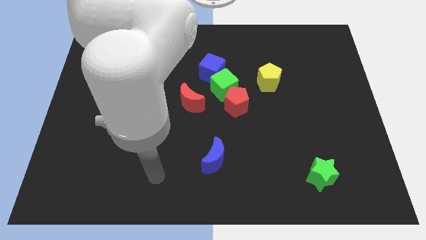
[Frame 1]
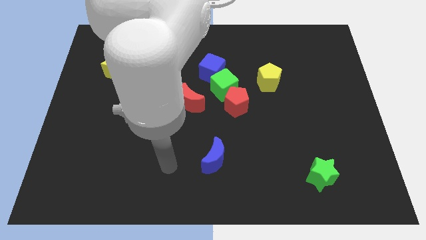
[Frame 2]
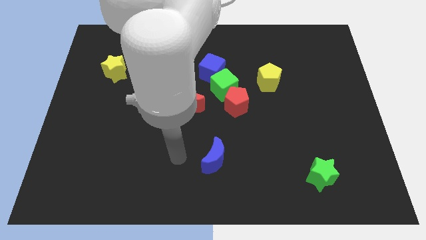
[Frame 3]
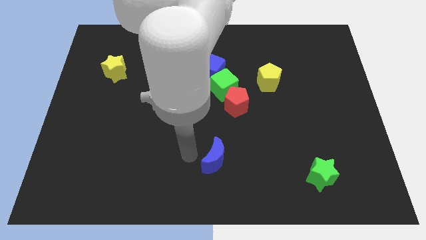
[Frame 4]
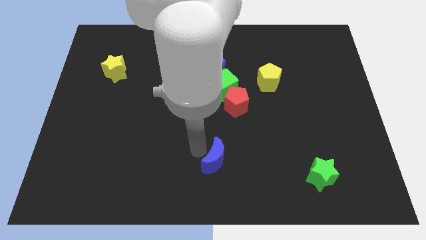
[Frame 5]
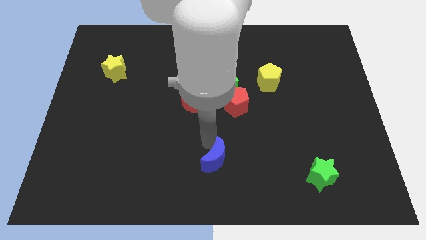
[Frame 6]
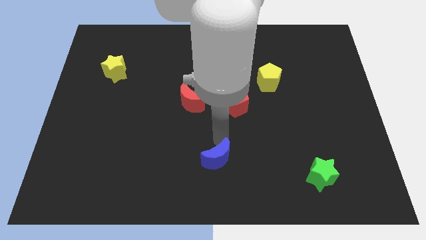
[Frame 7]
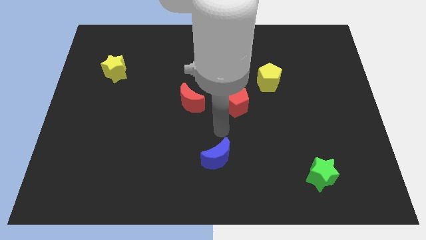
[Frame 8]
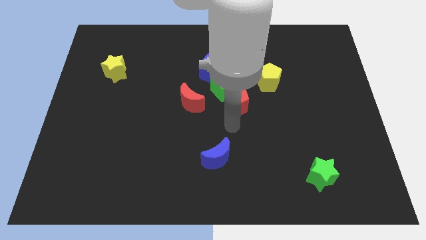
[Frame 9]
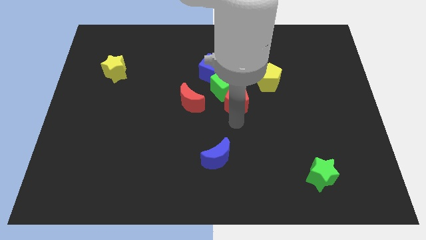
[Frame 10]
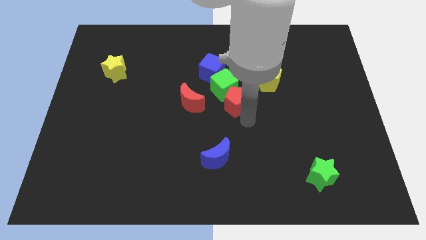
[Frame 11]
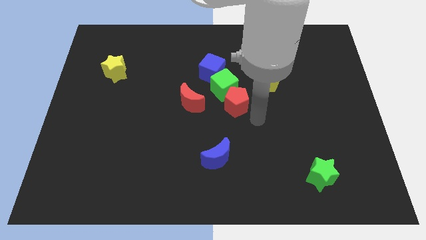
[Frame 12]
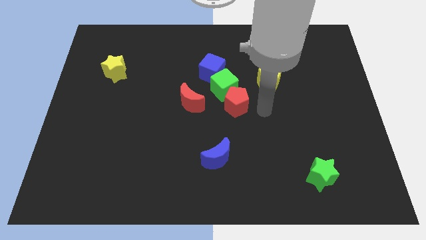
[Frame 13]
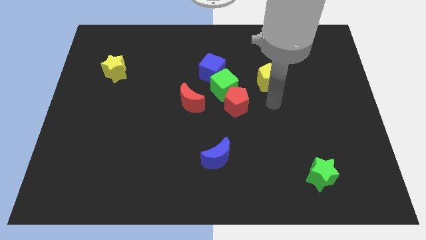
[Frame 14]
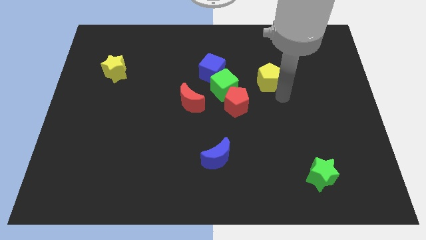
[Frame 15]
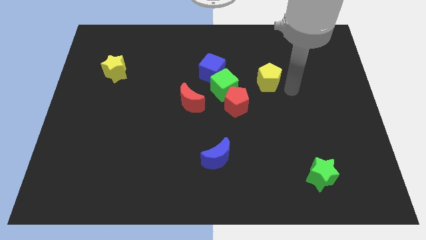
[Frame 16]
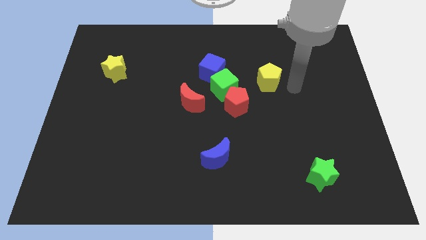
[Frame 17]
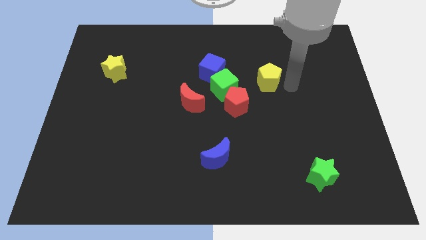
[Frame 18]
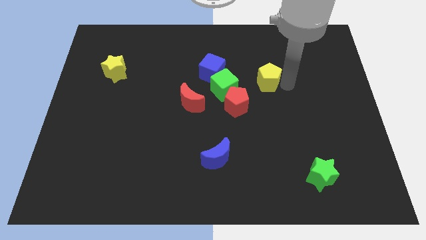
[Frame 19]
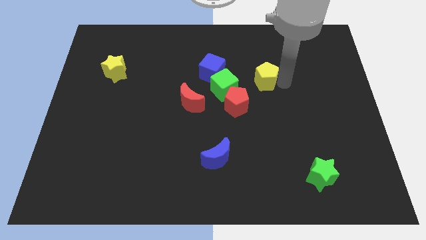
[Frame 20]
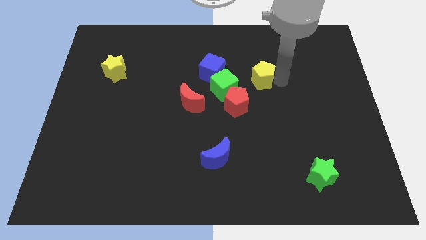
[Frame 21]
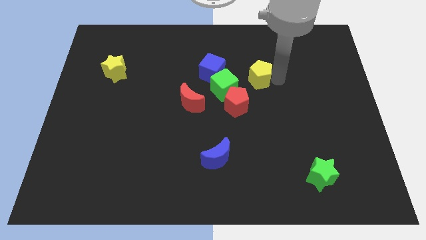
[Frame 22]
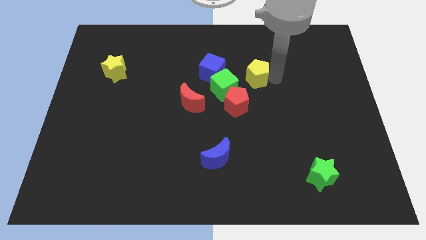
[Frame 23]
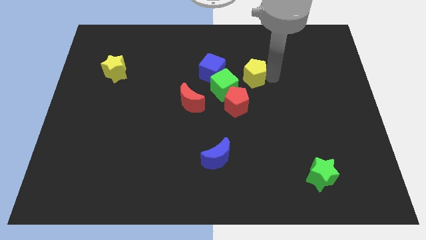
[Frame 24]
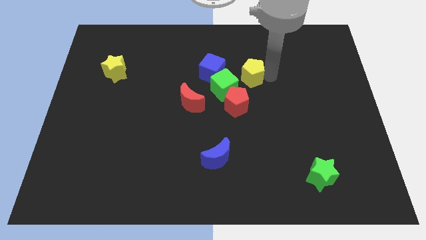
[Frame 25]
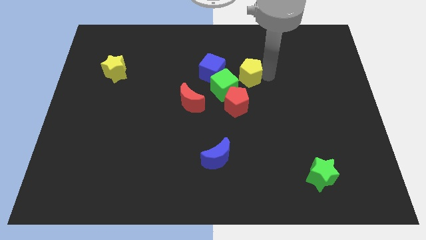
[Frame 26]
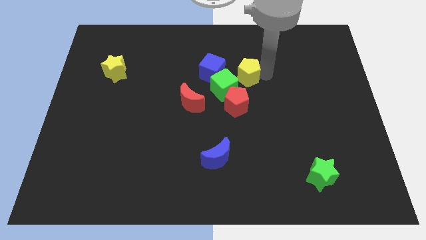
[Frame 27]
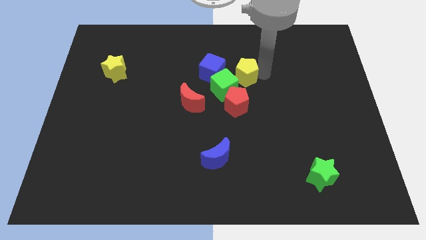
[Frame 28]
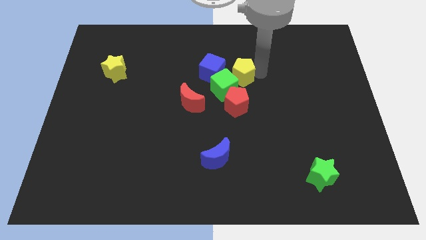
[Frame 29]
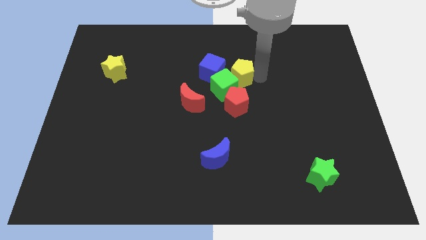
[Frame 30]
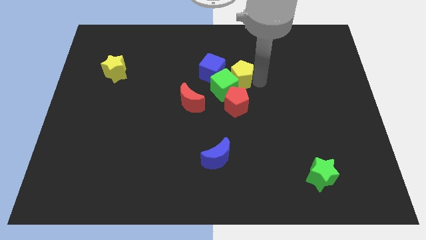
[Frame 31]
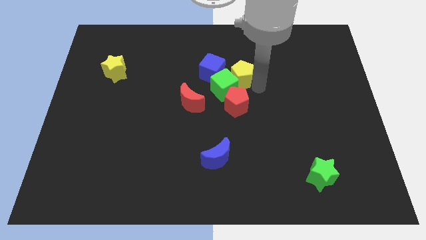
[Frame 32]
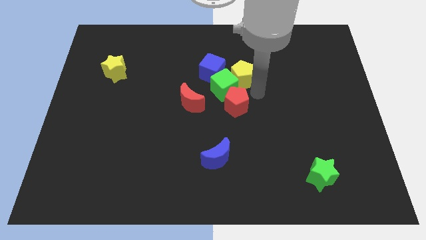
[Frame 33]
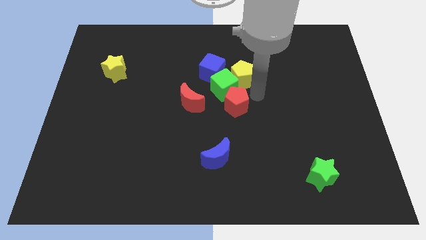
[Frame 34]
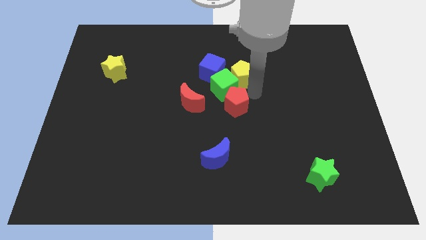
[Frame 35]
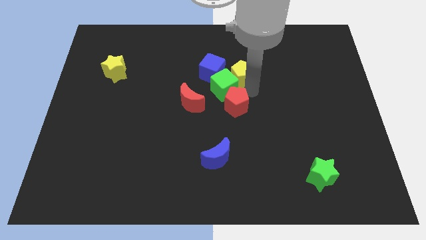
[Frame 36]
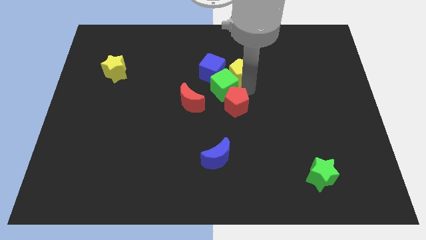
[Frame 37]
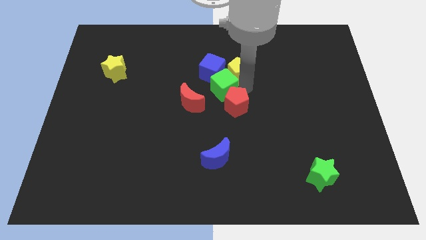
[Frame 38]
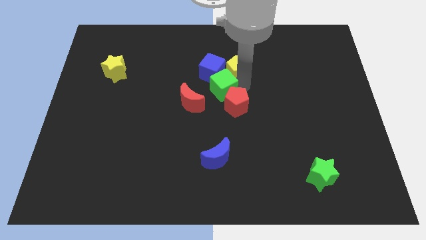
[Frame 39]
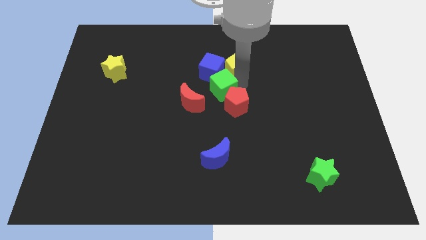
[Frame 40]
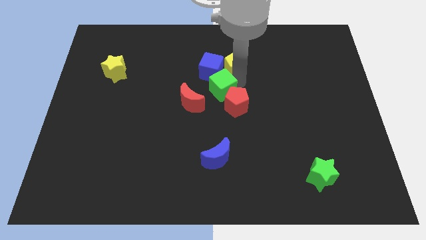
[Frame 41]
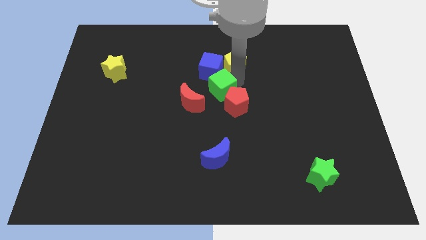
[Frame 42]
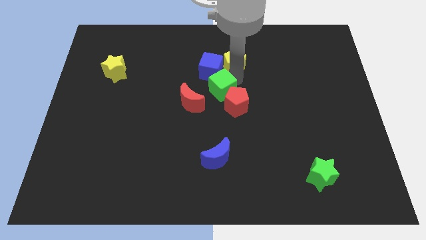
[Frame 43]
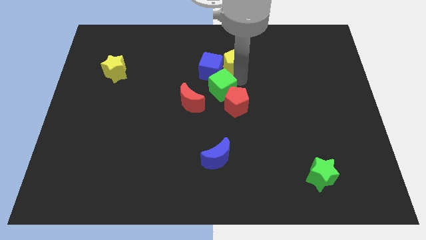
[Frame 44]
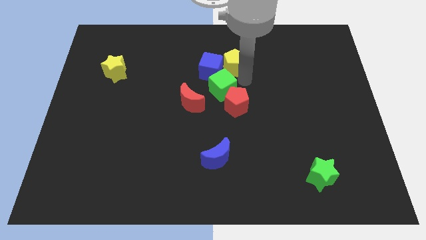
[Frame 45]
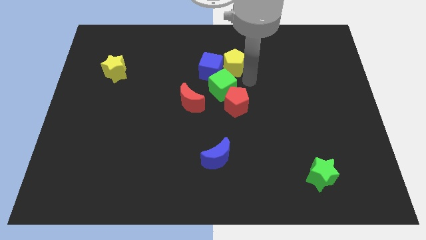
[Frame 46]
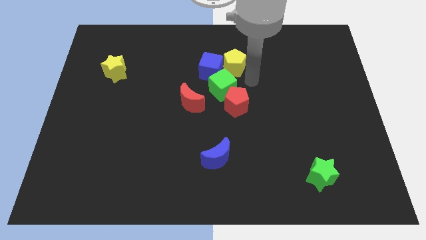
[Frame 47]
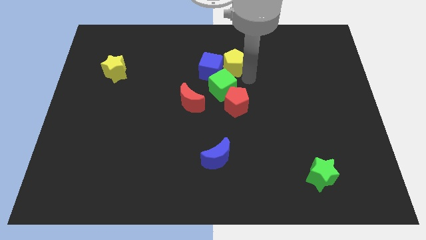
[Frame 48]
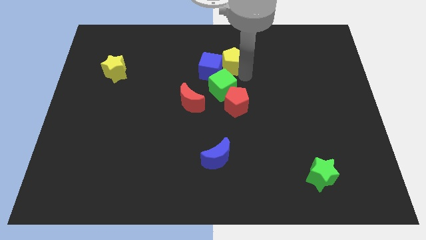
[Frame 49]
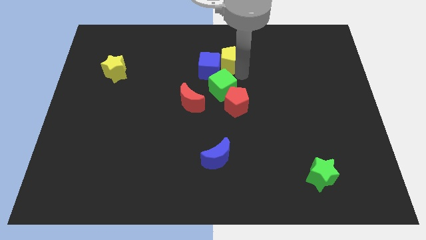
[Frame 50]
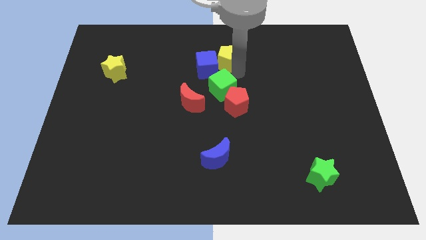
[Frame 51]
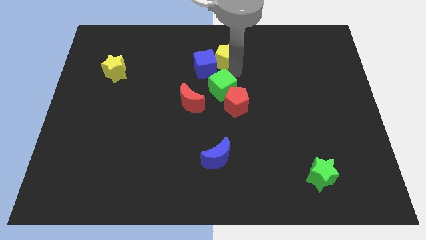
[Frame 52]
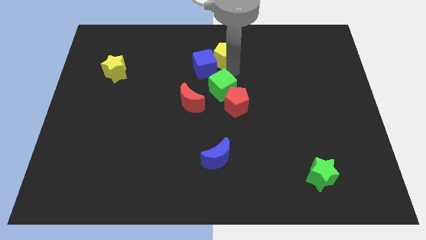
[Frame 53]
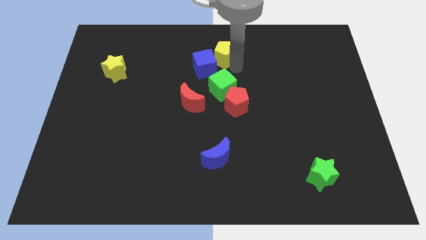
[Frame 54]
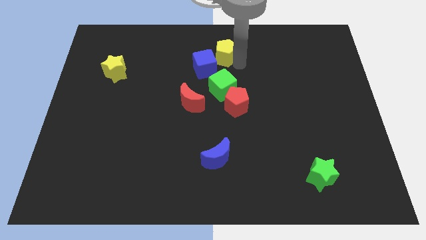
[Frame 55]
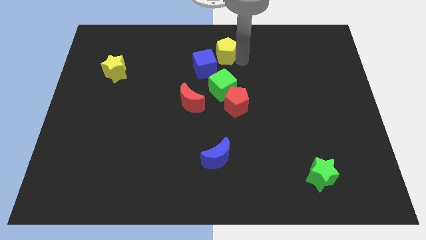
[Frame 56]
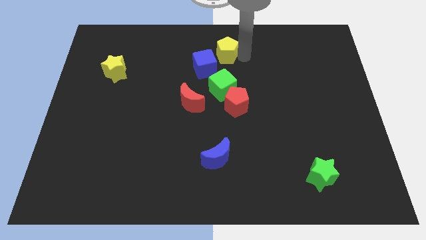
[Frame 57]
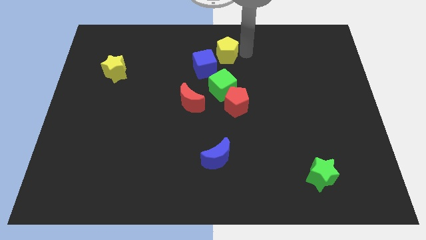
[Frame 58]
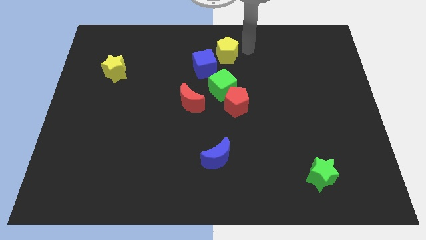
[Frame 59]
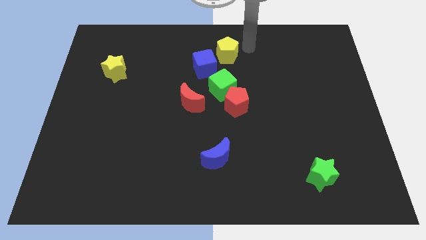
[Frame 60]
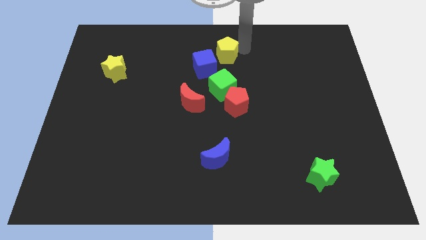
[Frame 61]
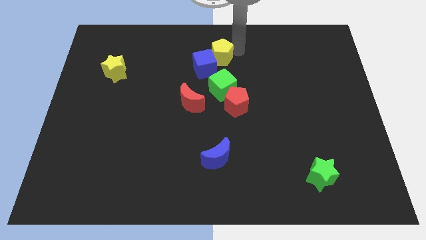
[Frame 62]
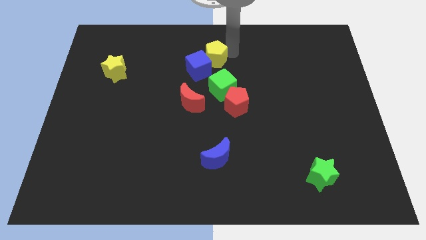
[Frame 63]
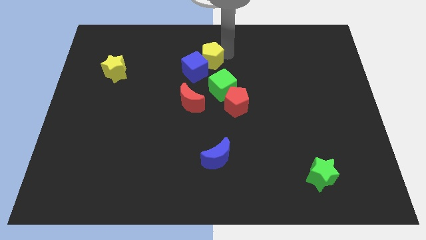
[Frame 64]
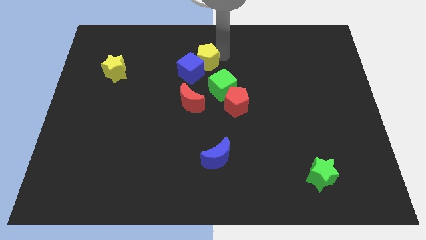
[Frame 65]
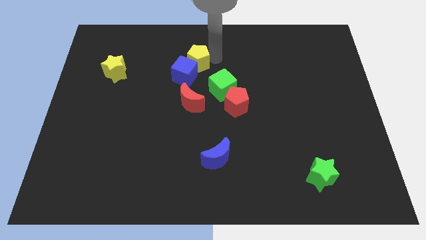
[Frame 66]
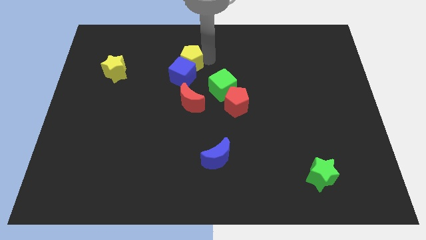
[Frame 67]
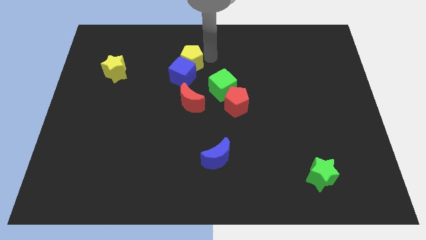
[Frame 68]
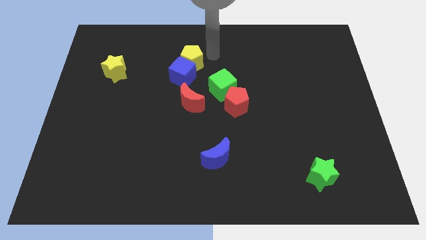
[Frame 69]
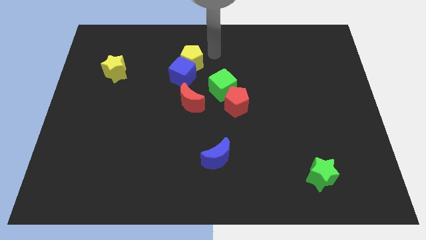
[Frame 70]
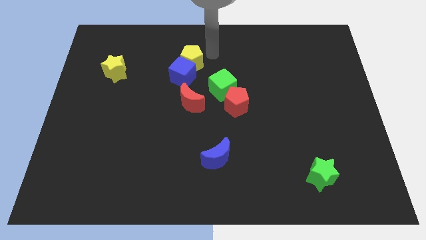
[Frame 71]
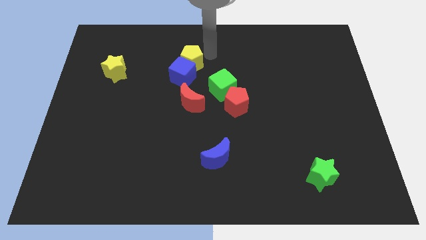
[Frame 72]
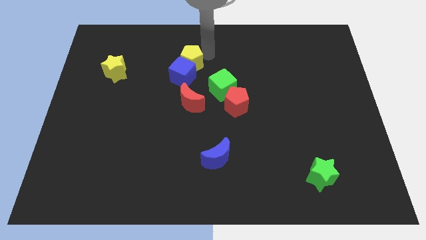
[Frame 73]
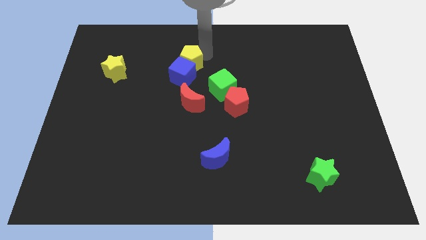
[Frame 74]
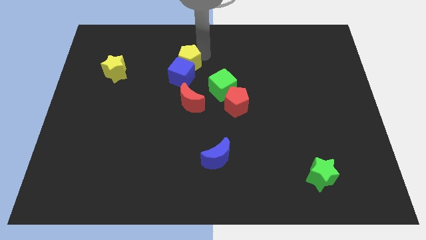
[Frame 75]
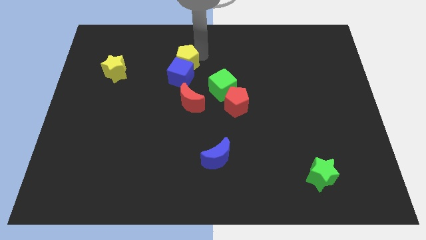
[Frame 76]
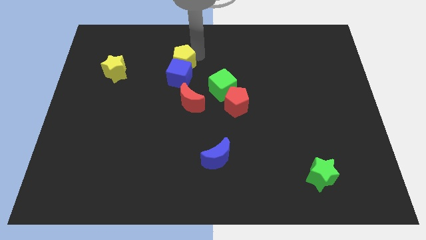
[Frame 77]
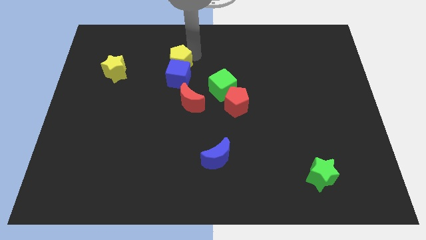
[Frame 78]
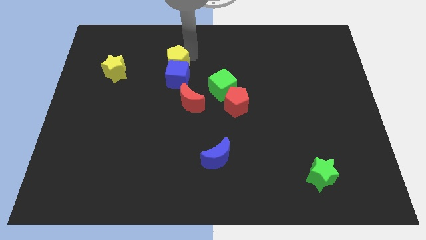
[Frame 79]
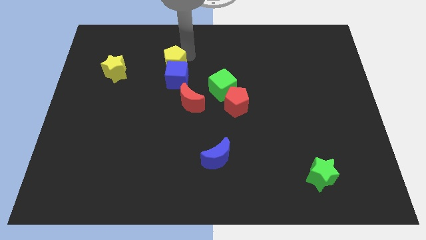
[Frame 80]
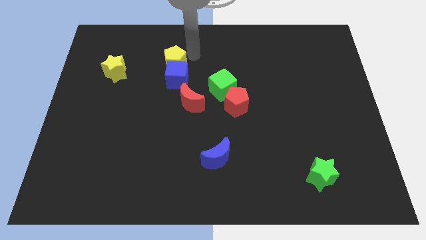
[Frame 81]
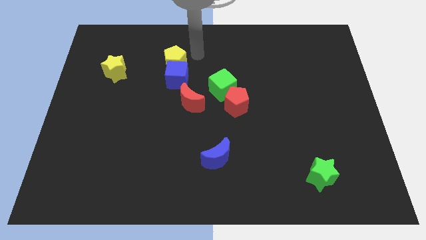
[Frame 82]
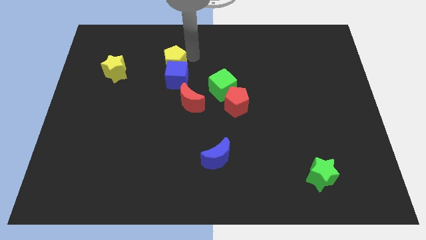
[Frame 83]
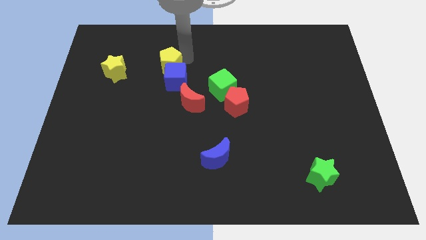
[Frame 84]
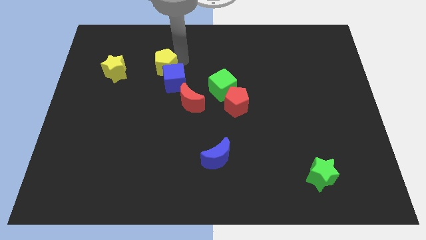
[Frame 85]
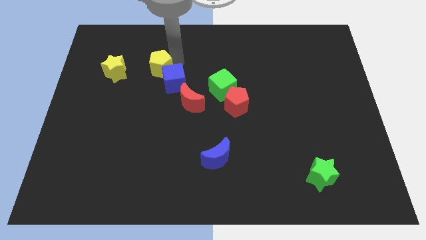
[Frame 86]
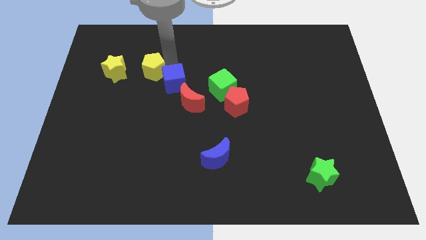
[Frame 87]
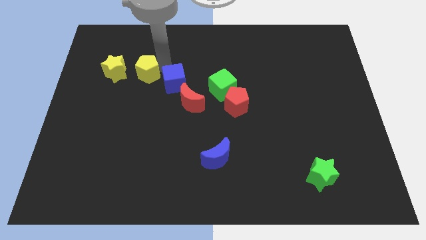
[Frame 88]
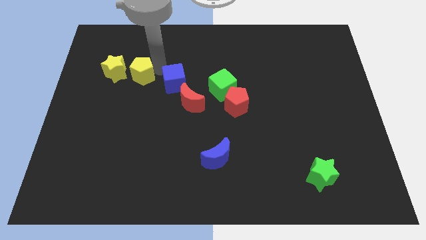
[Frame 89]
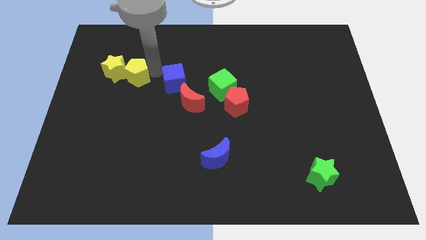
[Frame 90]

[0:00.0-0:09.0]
slide the yellow pentagon close to the yellow star
